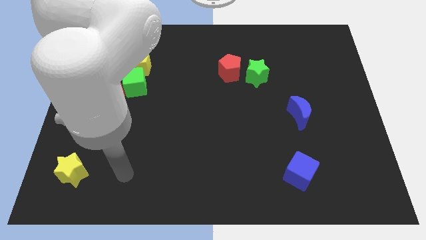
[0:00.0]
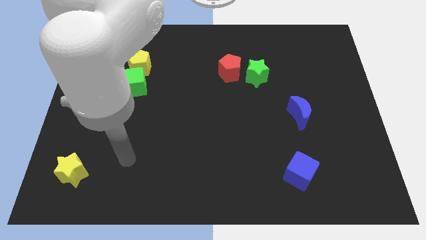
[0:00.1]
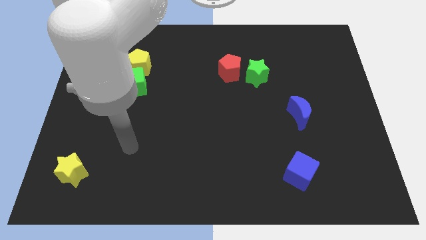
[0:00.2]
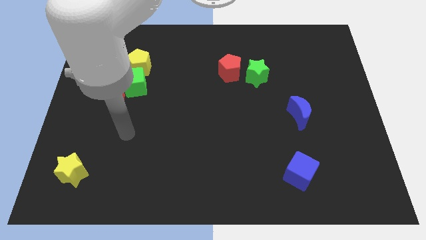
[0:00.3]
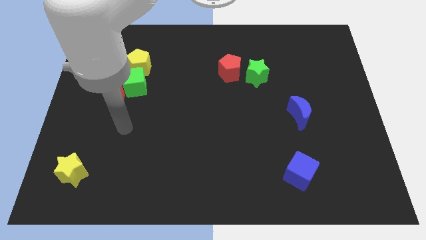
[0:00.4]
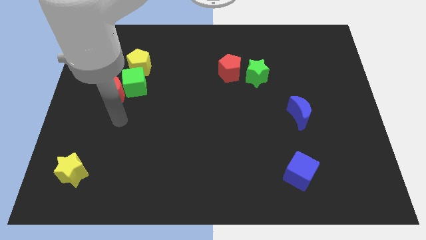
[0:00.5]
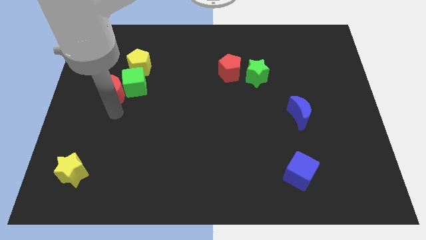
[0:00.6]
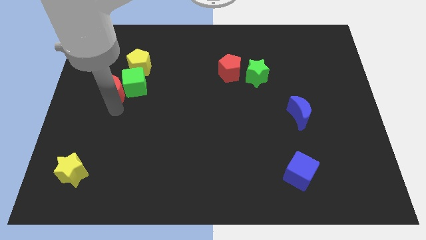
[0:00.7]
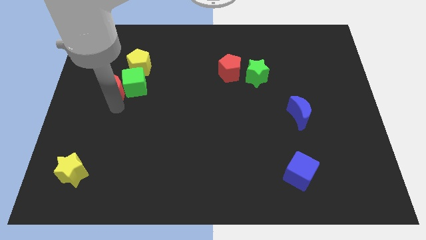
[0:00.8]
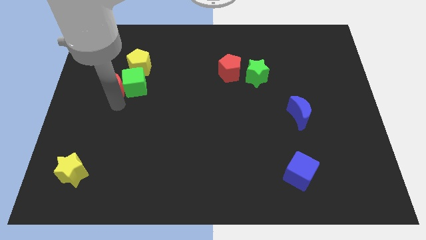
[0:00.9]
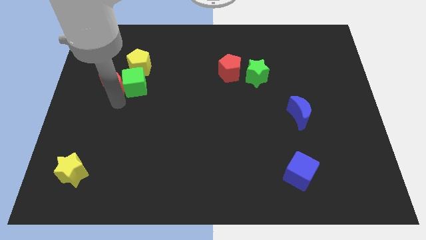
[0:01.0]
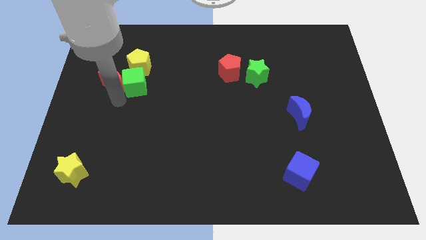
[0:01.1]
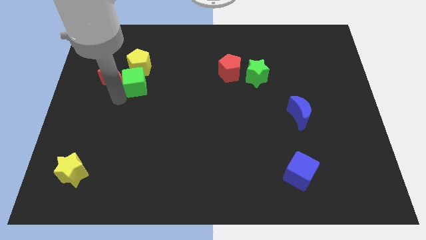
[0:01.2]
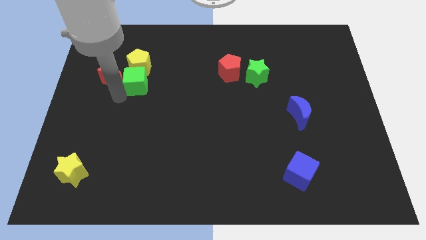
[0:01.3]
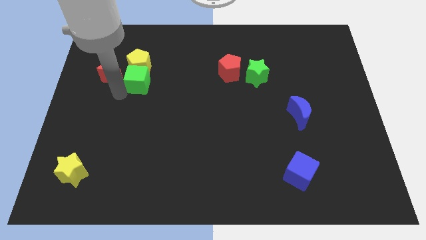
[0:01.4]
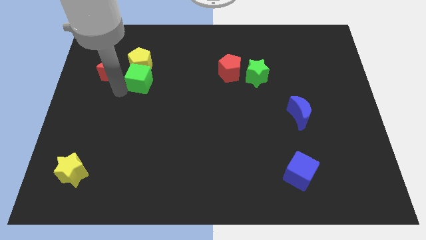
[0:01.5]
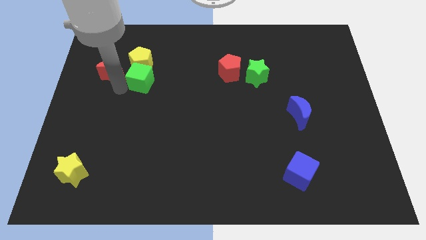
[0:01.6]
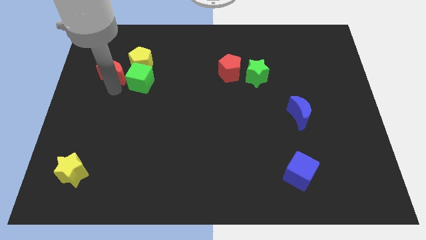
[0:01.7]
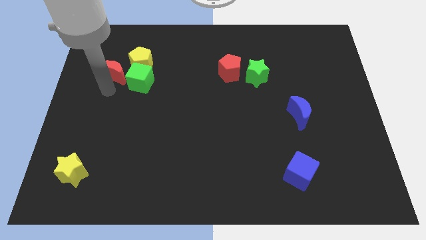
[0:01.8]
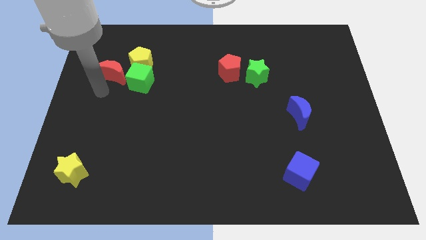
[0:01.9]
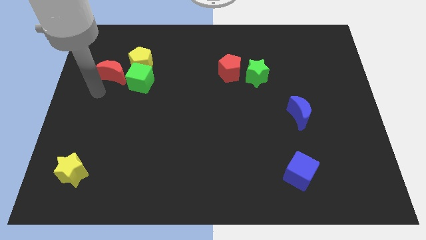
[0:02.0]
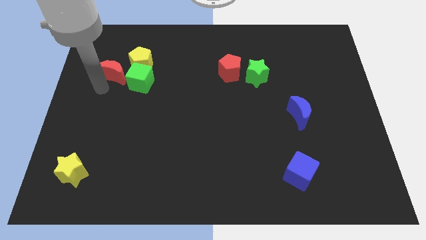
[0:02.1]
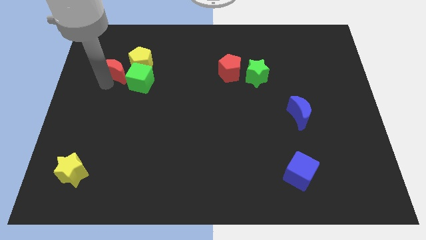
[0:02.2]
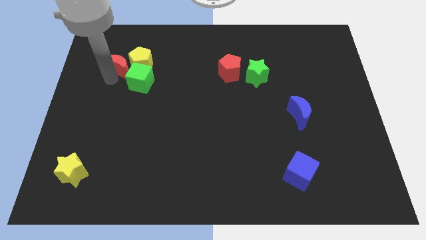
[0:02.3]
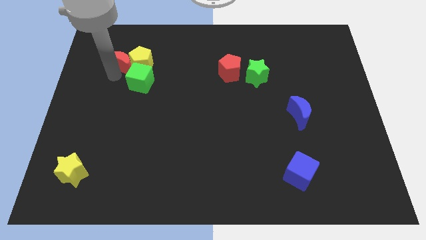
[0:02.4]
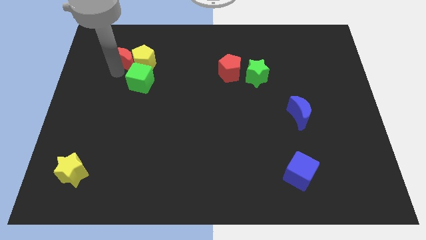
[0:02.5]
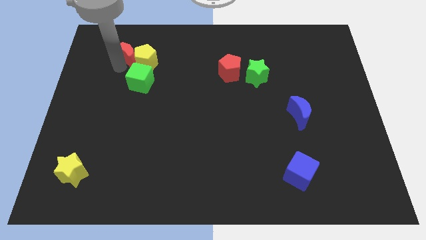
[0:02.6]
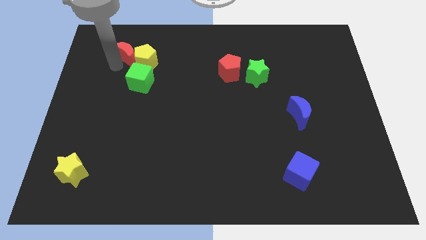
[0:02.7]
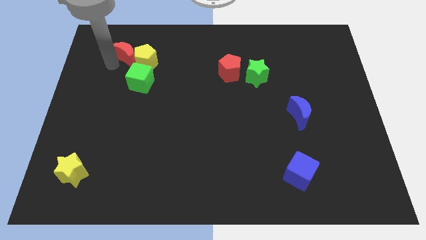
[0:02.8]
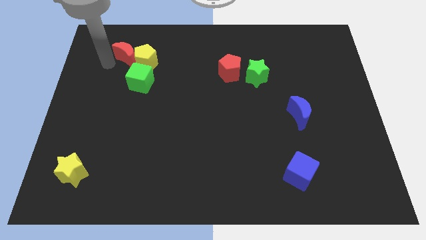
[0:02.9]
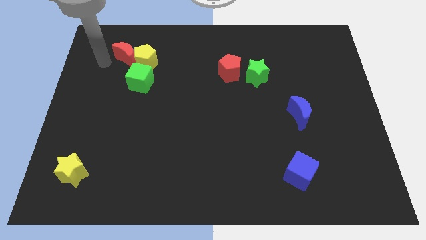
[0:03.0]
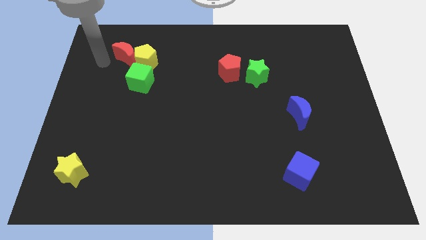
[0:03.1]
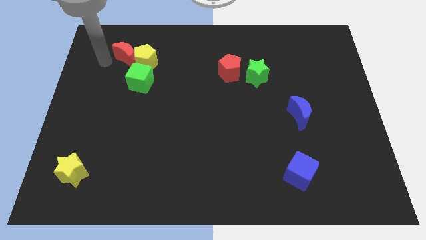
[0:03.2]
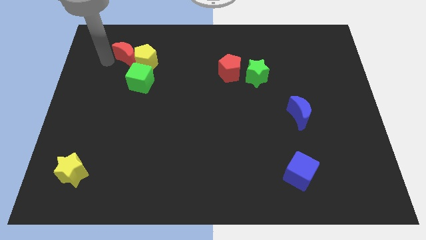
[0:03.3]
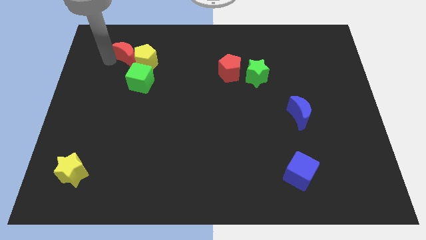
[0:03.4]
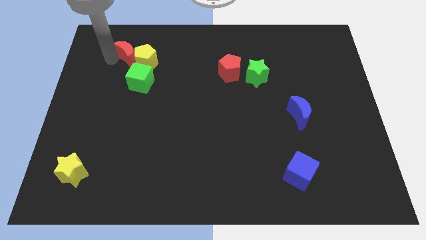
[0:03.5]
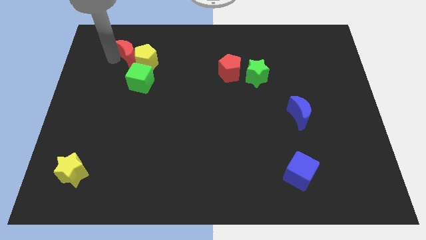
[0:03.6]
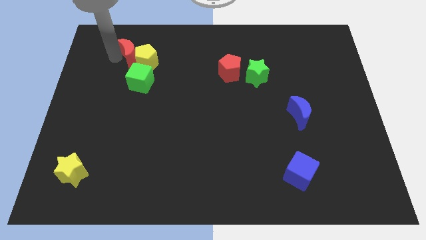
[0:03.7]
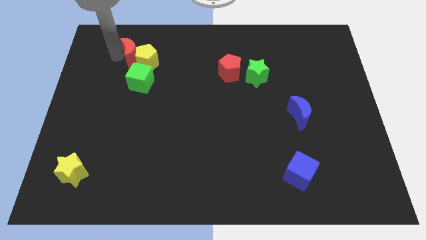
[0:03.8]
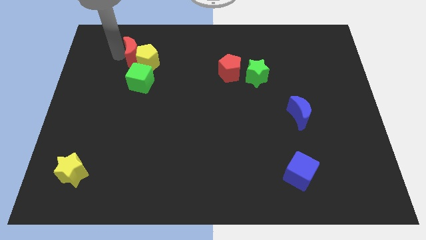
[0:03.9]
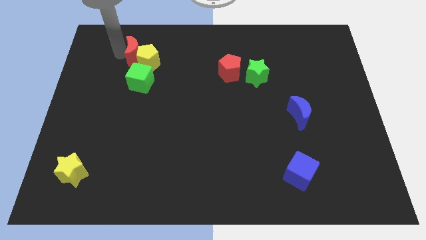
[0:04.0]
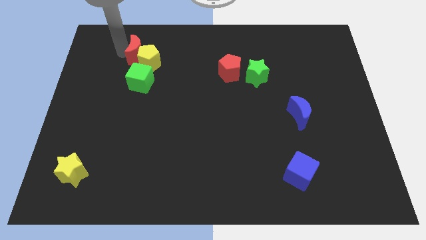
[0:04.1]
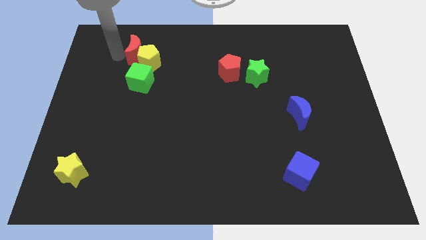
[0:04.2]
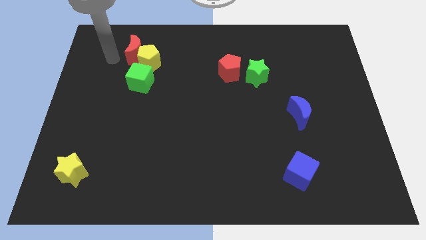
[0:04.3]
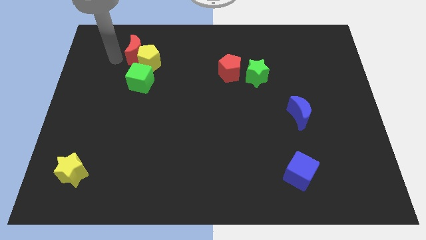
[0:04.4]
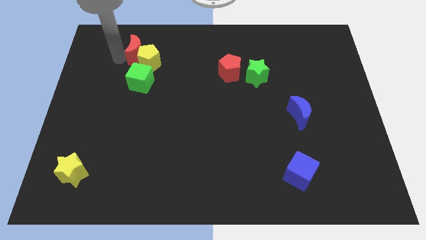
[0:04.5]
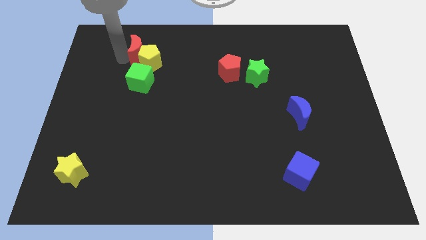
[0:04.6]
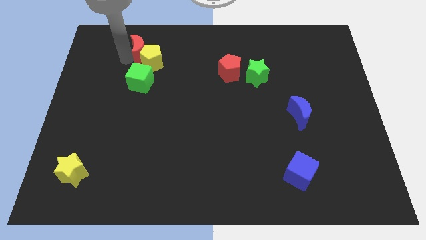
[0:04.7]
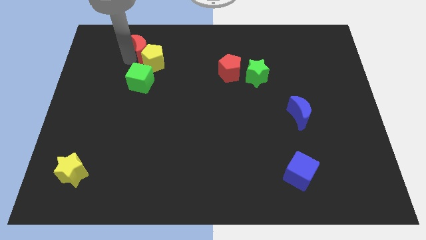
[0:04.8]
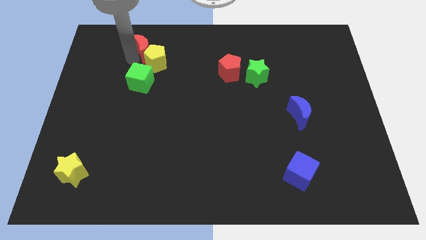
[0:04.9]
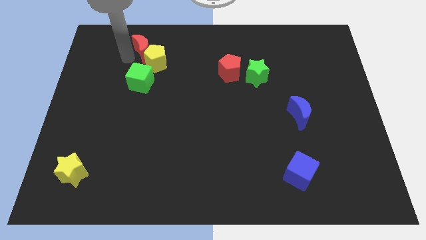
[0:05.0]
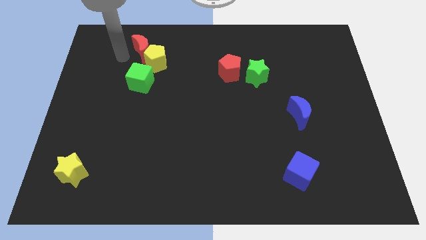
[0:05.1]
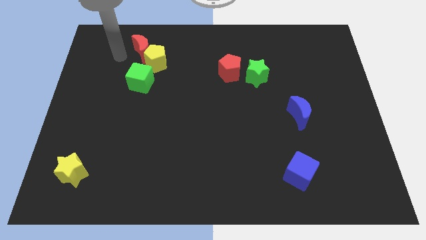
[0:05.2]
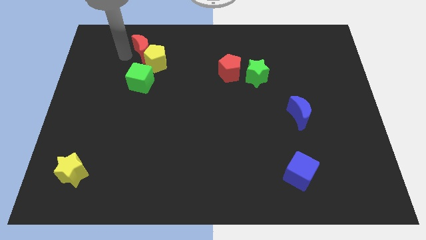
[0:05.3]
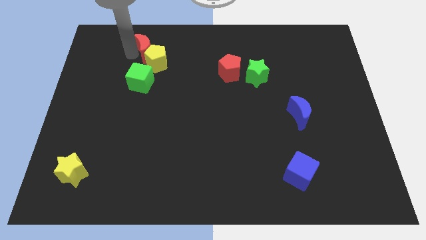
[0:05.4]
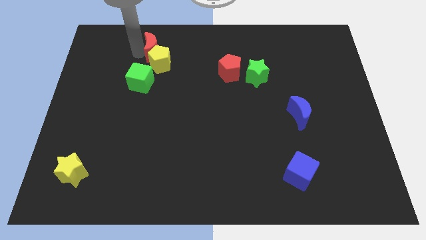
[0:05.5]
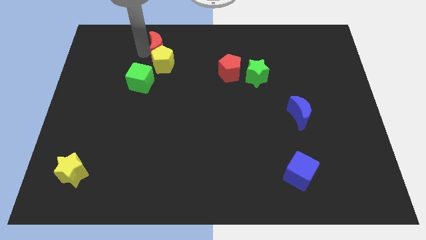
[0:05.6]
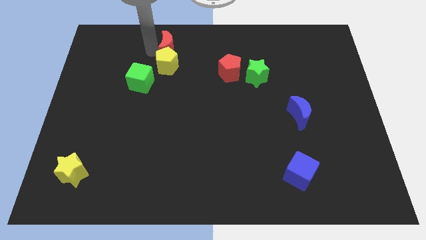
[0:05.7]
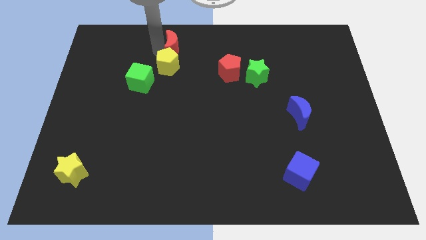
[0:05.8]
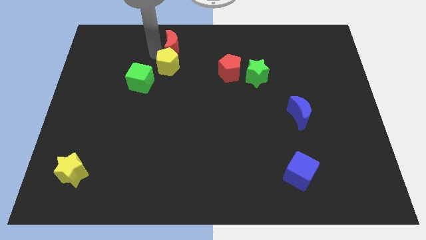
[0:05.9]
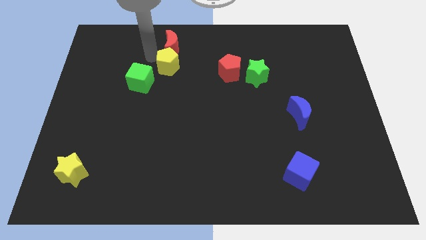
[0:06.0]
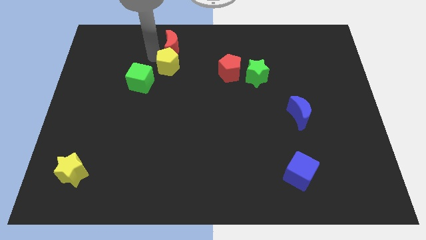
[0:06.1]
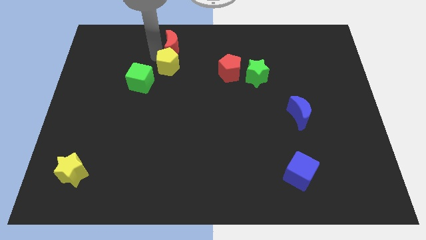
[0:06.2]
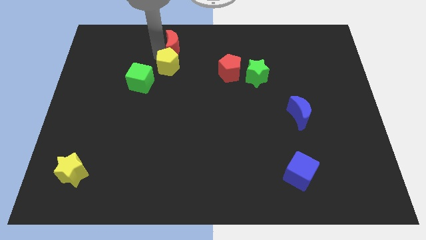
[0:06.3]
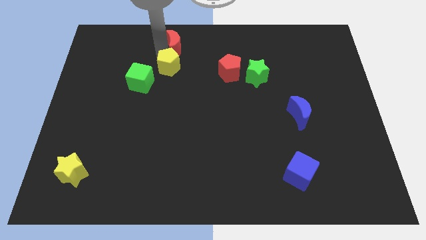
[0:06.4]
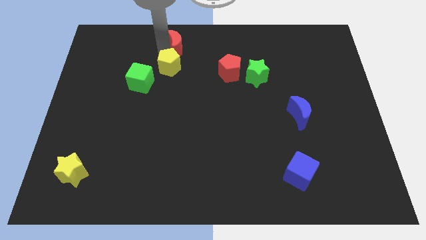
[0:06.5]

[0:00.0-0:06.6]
push the red moon to the towards your base

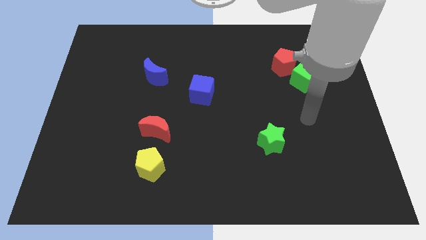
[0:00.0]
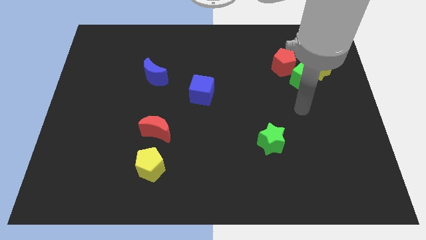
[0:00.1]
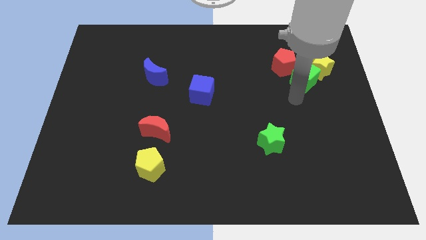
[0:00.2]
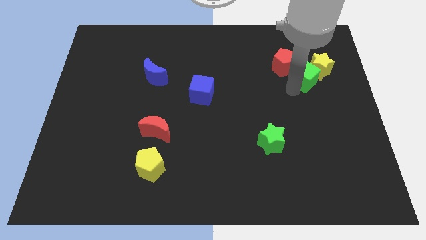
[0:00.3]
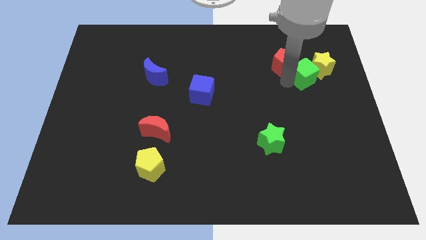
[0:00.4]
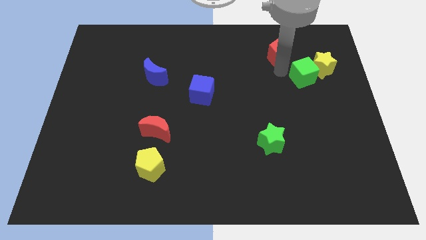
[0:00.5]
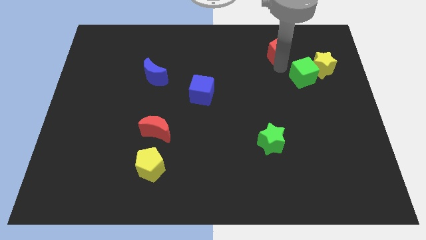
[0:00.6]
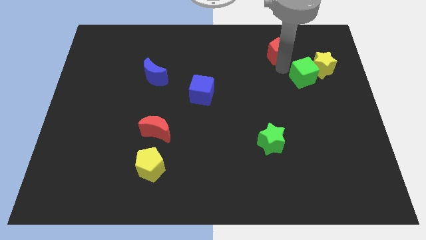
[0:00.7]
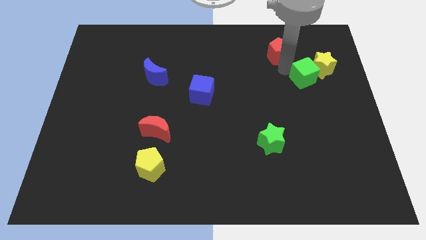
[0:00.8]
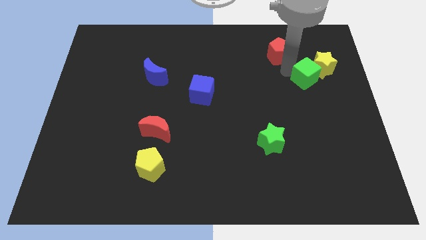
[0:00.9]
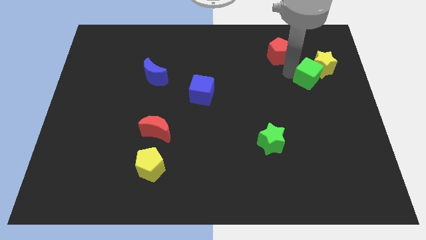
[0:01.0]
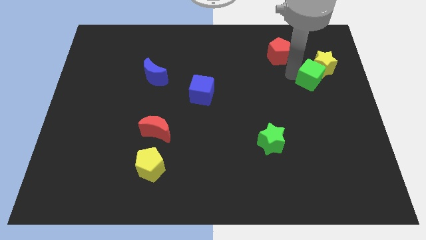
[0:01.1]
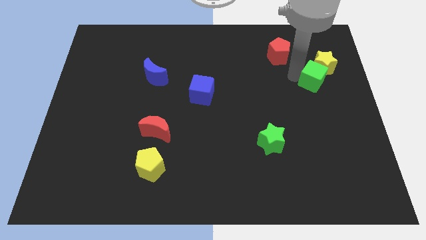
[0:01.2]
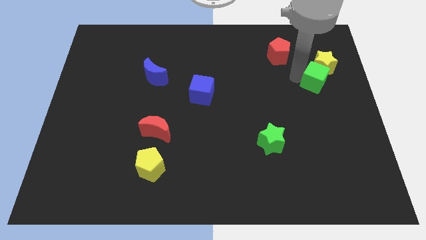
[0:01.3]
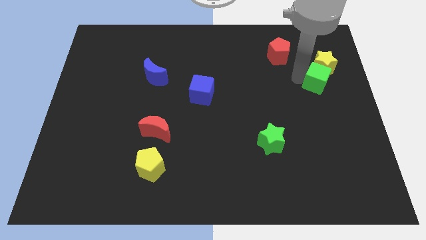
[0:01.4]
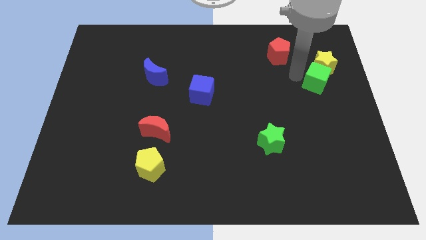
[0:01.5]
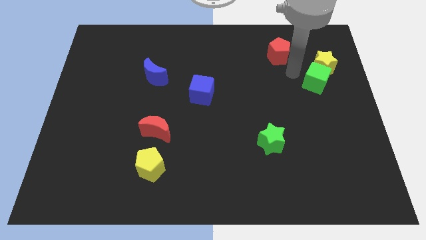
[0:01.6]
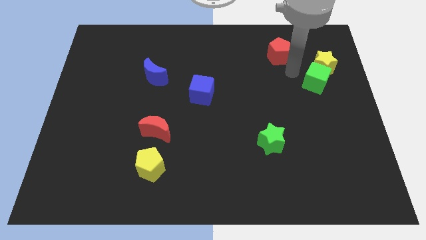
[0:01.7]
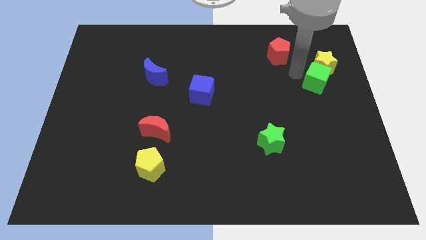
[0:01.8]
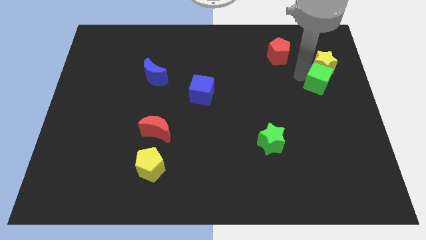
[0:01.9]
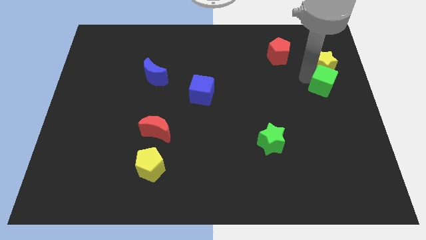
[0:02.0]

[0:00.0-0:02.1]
move the green cube to the center right
